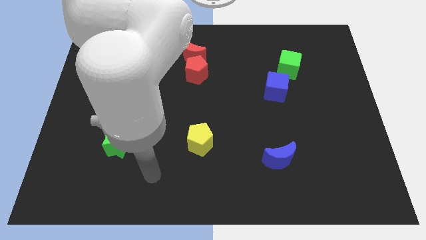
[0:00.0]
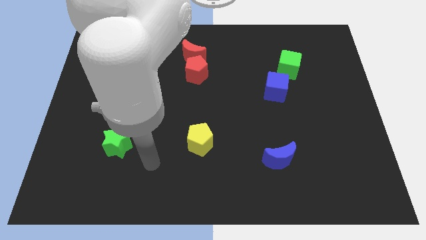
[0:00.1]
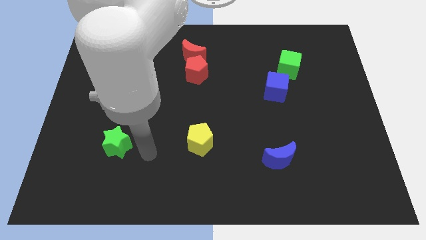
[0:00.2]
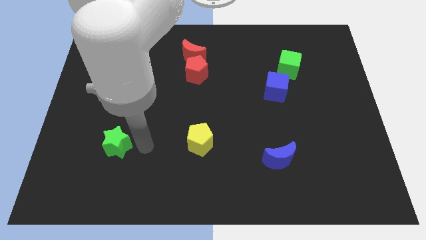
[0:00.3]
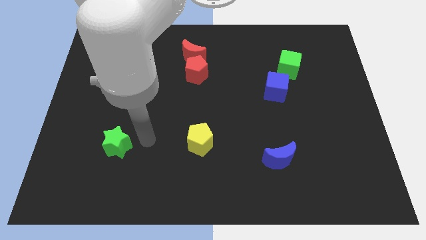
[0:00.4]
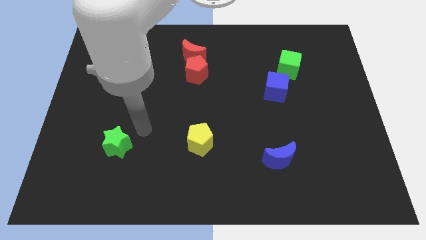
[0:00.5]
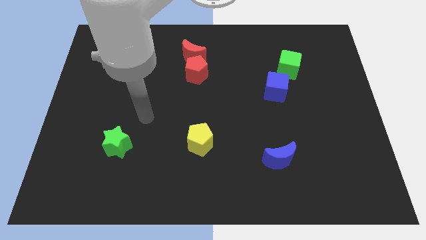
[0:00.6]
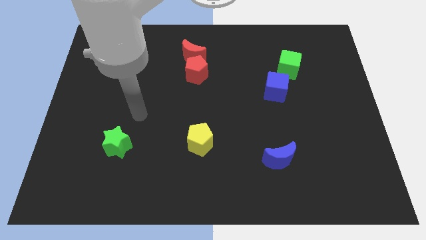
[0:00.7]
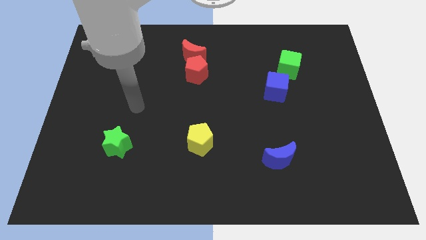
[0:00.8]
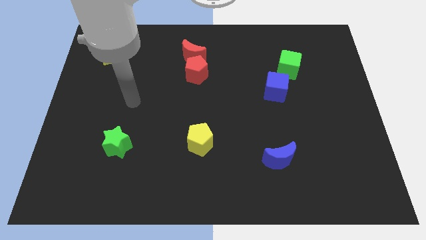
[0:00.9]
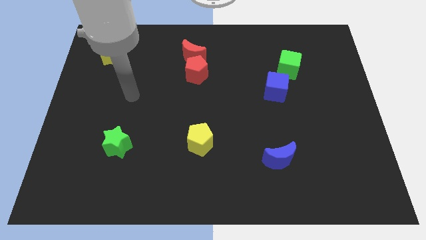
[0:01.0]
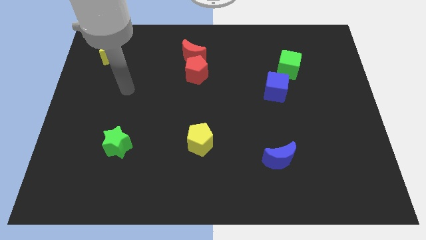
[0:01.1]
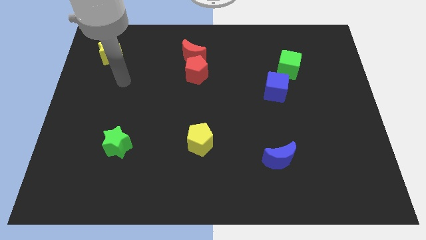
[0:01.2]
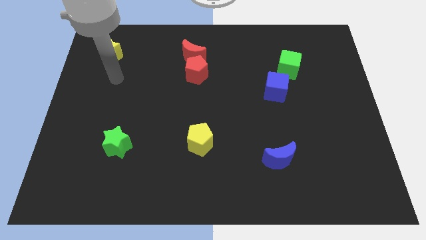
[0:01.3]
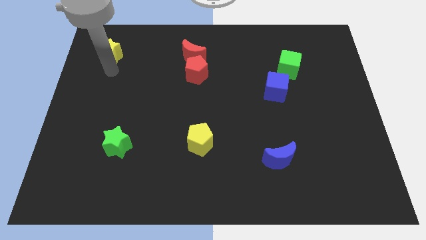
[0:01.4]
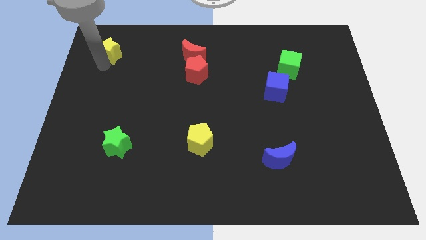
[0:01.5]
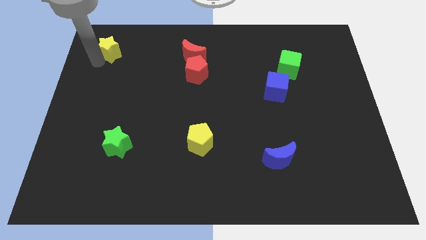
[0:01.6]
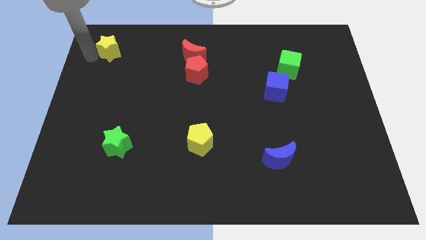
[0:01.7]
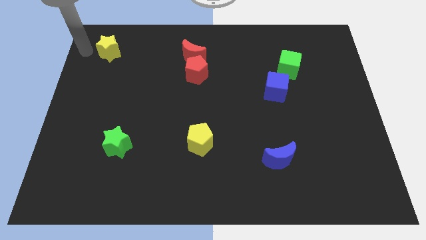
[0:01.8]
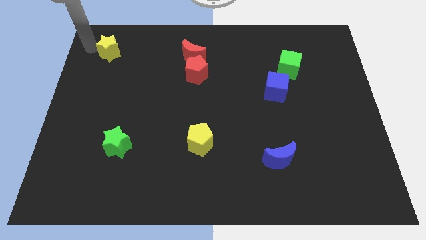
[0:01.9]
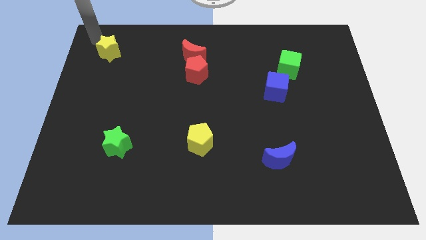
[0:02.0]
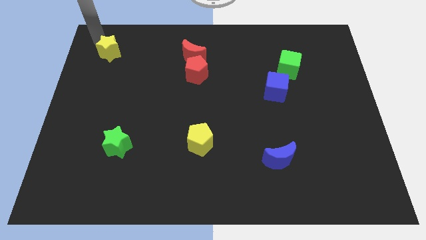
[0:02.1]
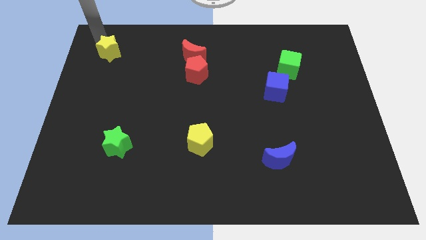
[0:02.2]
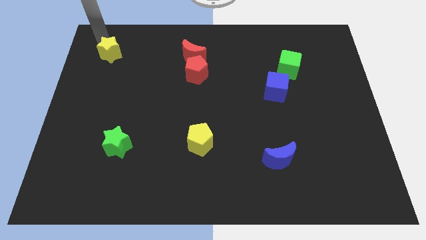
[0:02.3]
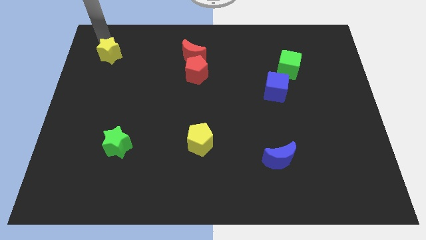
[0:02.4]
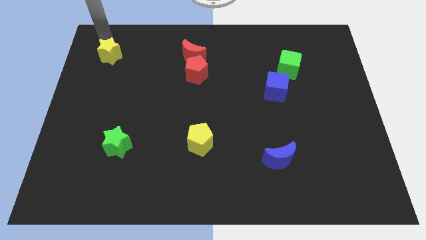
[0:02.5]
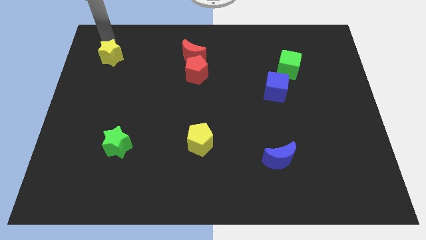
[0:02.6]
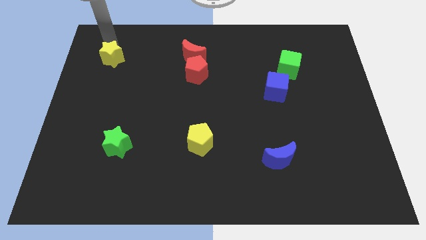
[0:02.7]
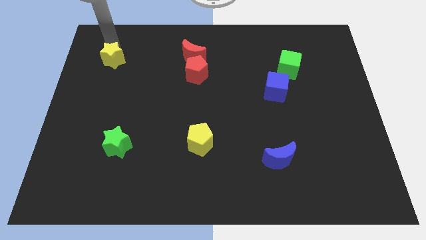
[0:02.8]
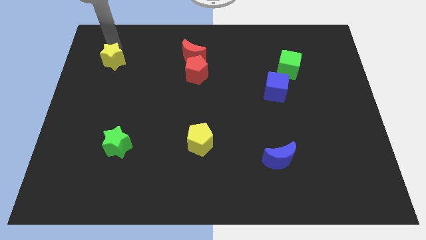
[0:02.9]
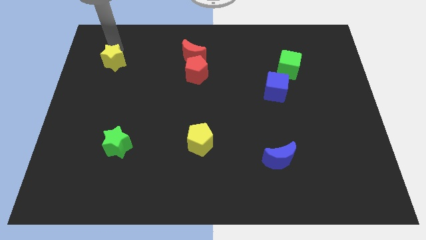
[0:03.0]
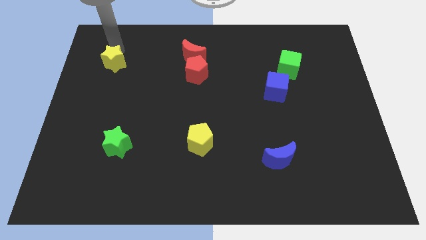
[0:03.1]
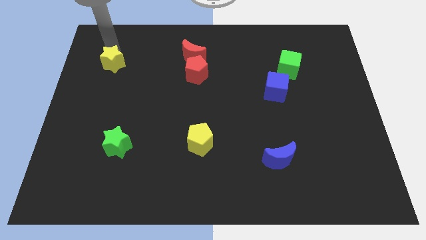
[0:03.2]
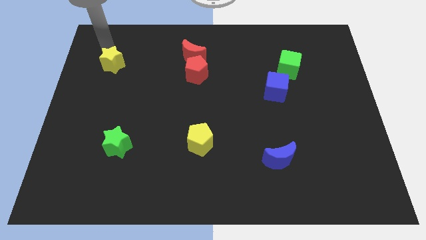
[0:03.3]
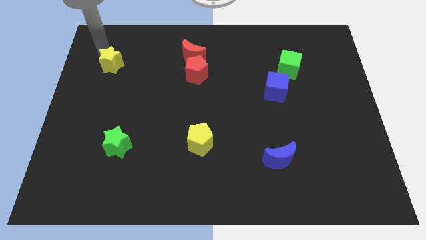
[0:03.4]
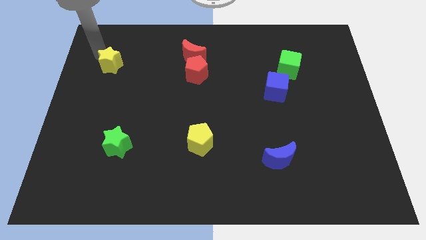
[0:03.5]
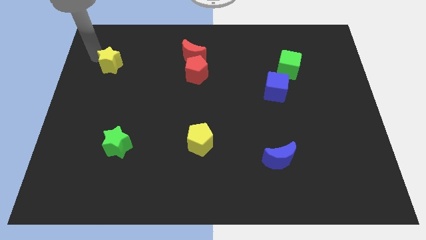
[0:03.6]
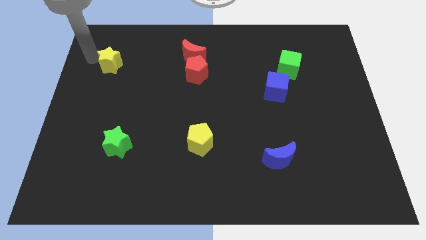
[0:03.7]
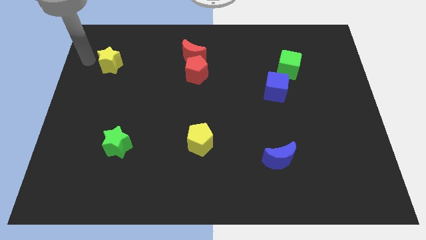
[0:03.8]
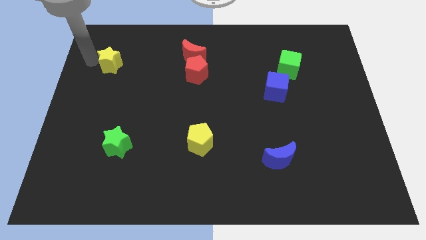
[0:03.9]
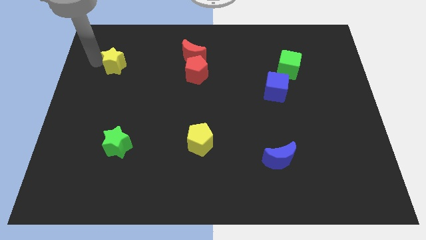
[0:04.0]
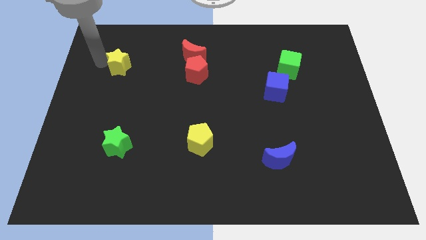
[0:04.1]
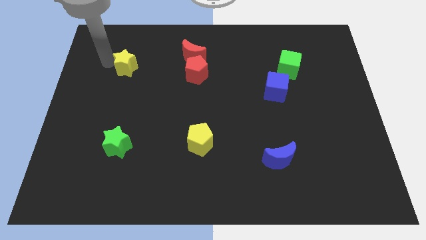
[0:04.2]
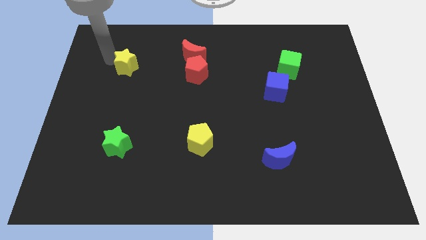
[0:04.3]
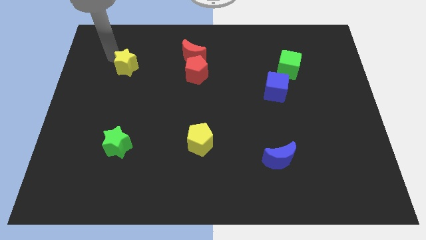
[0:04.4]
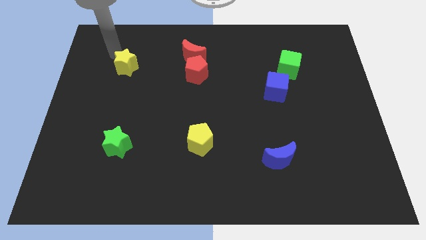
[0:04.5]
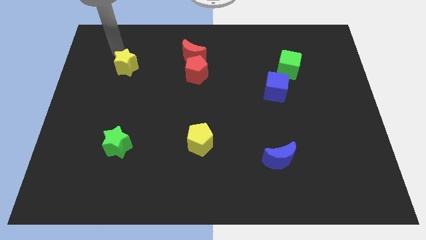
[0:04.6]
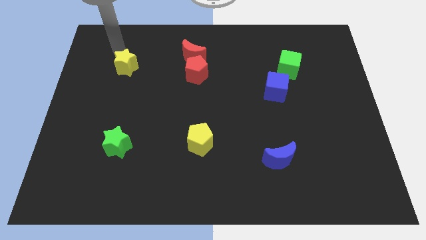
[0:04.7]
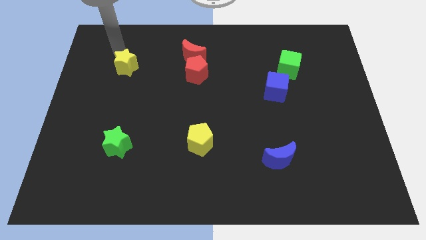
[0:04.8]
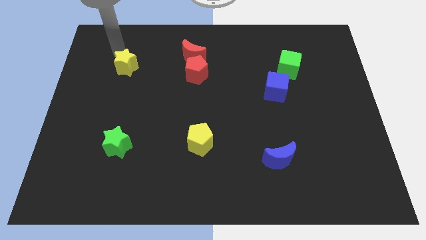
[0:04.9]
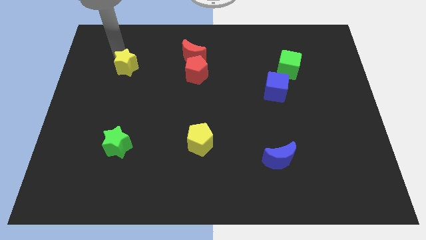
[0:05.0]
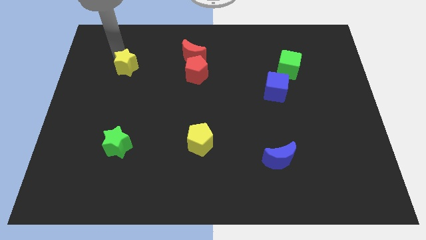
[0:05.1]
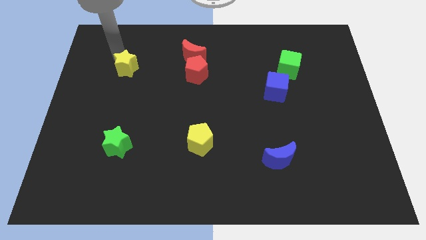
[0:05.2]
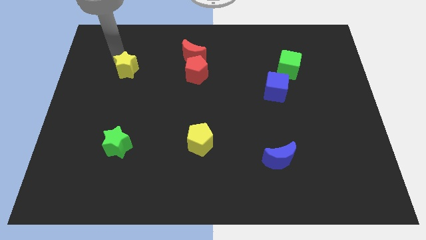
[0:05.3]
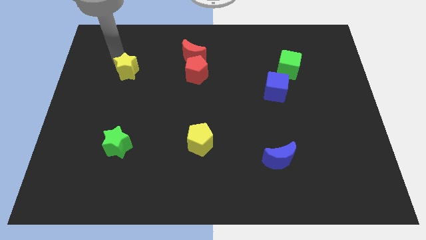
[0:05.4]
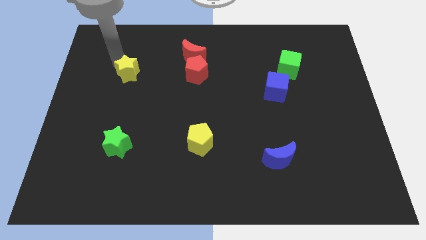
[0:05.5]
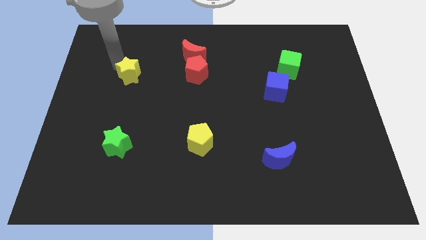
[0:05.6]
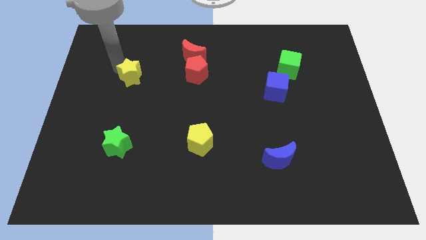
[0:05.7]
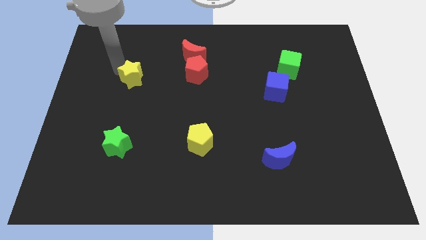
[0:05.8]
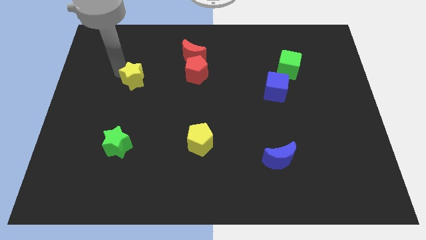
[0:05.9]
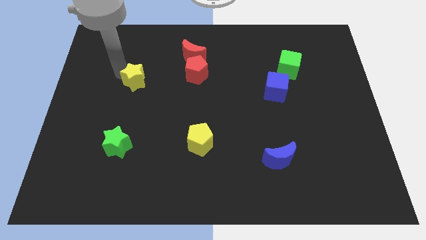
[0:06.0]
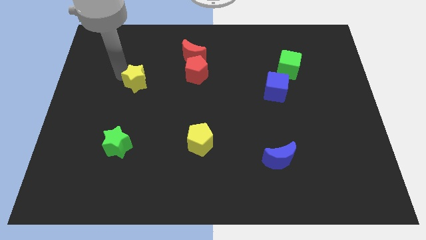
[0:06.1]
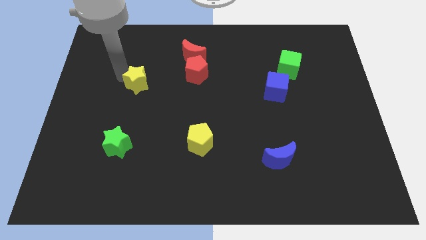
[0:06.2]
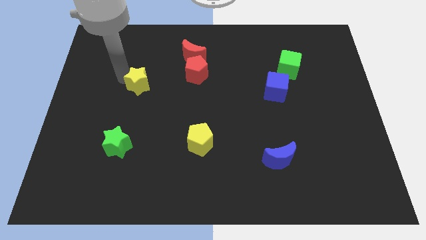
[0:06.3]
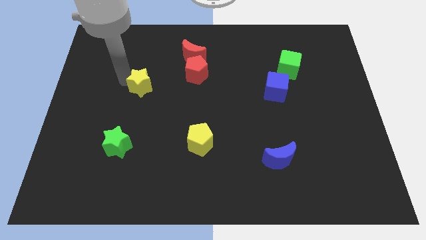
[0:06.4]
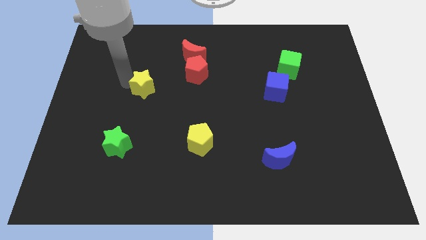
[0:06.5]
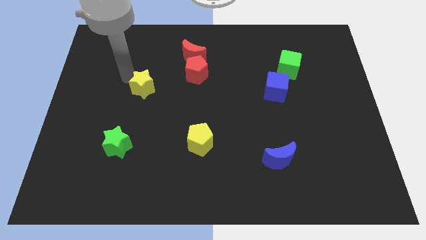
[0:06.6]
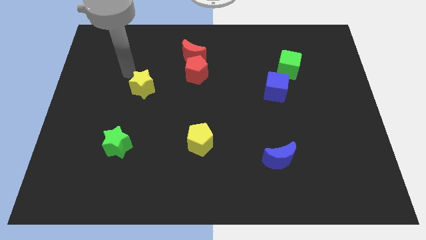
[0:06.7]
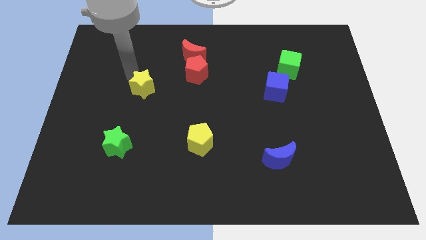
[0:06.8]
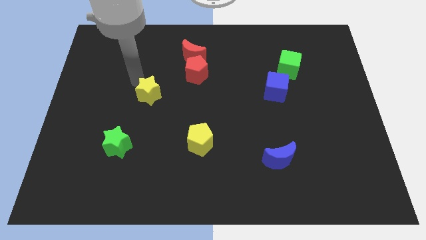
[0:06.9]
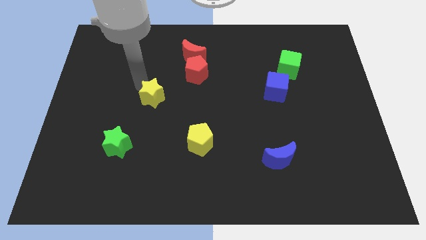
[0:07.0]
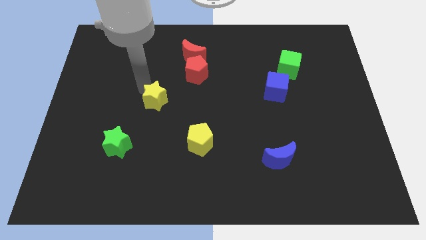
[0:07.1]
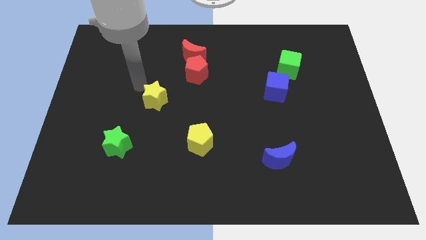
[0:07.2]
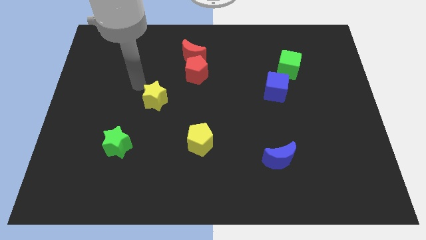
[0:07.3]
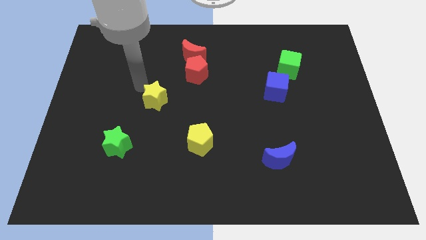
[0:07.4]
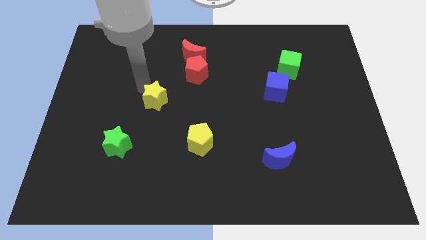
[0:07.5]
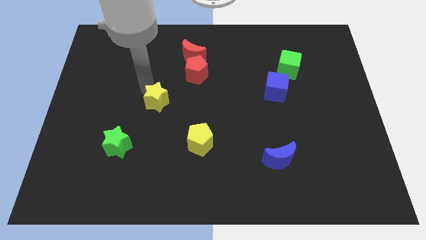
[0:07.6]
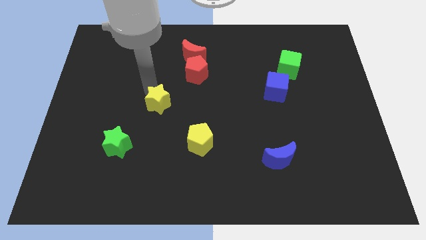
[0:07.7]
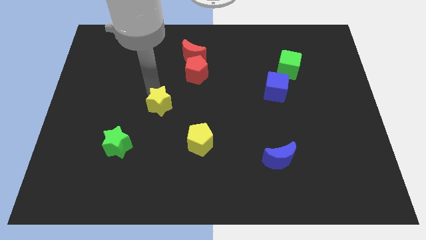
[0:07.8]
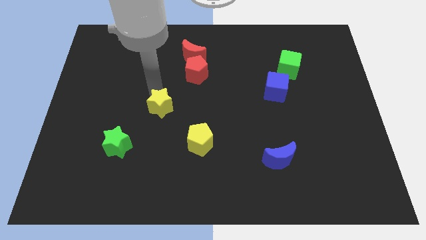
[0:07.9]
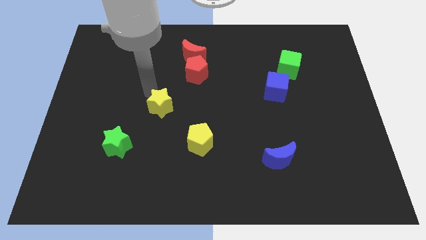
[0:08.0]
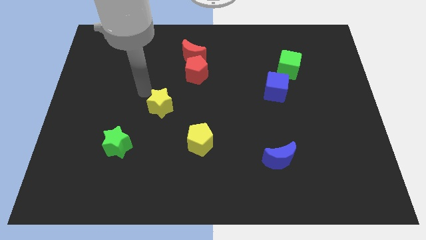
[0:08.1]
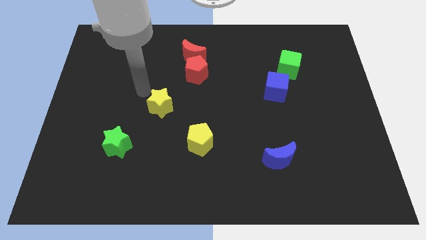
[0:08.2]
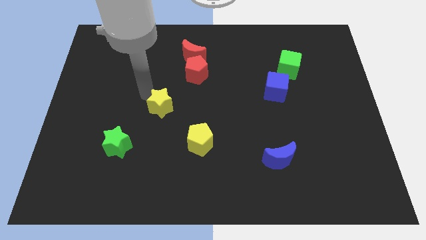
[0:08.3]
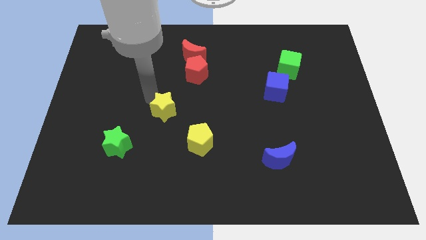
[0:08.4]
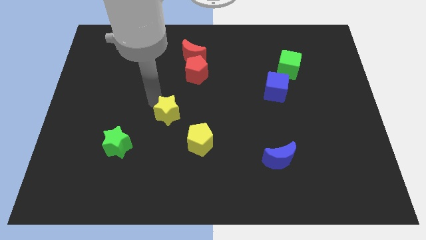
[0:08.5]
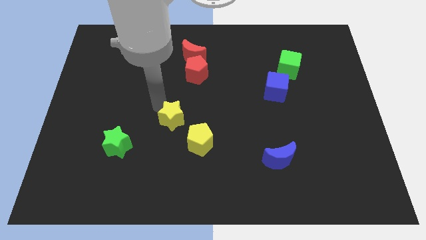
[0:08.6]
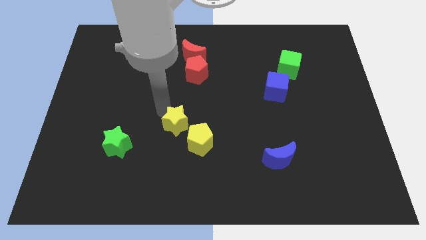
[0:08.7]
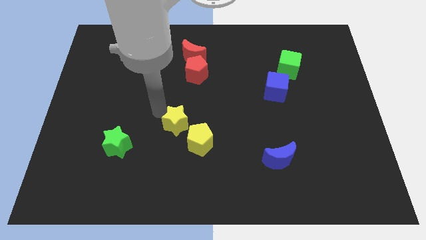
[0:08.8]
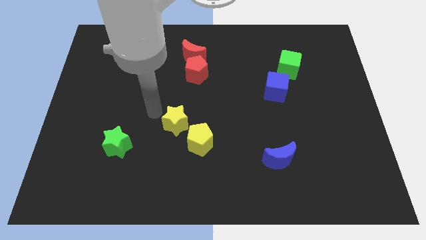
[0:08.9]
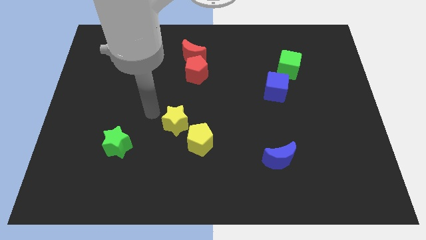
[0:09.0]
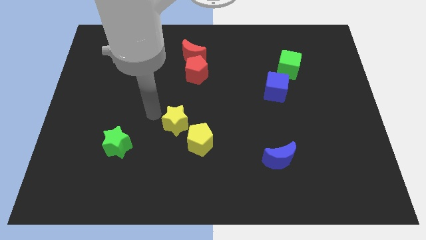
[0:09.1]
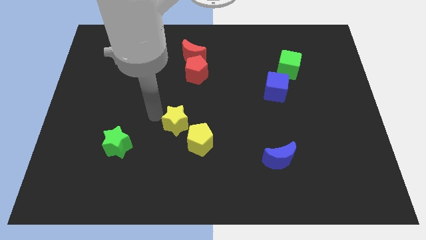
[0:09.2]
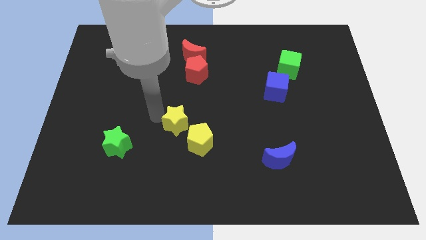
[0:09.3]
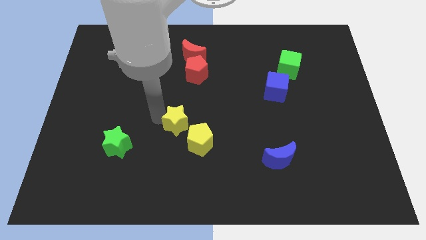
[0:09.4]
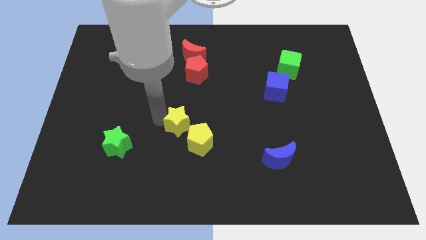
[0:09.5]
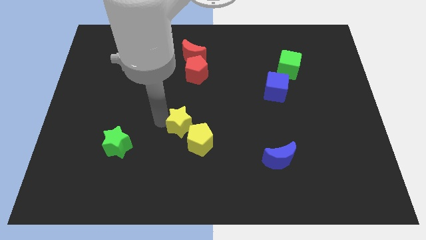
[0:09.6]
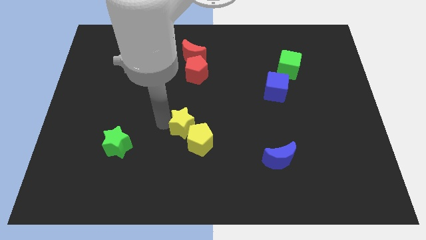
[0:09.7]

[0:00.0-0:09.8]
slide the yellow star towards the yellow pentagon
